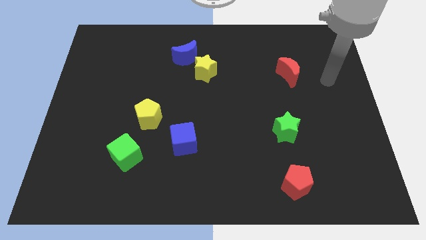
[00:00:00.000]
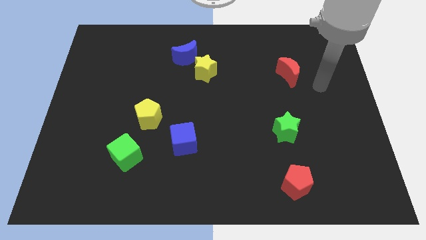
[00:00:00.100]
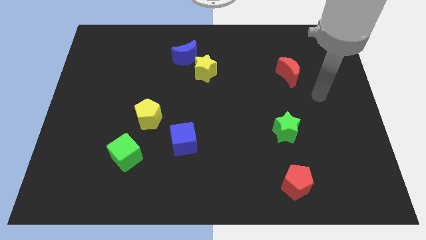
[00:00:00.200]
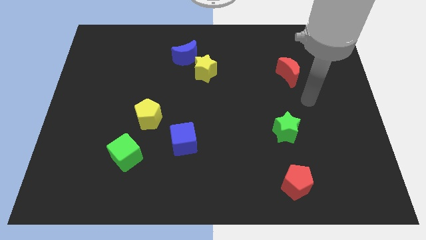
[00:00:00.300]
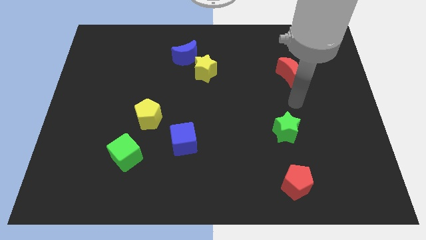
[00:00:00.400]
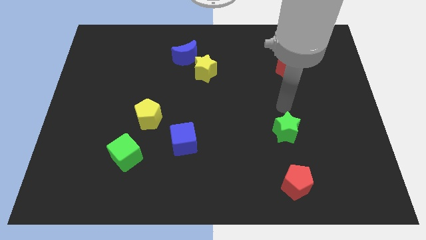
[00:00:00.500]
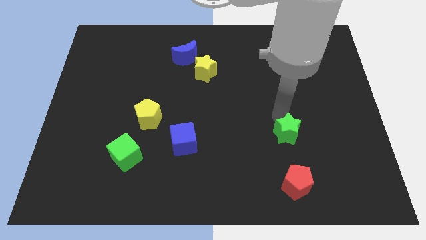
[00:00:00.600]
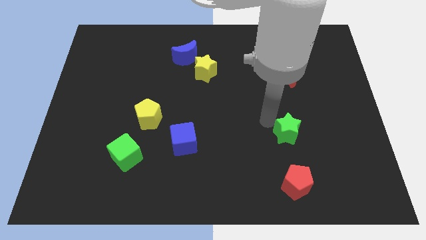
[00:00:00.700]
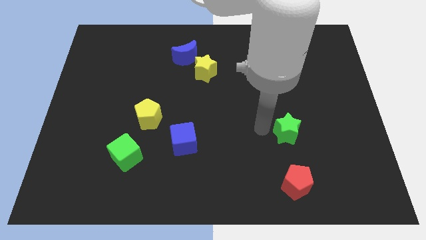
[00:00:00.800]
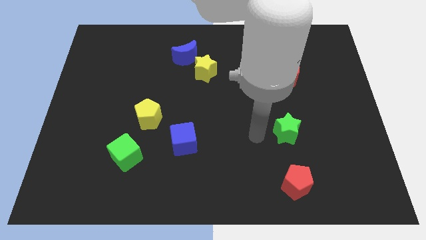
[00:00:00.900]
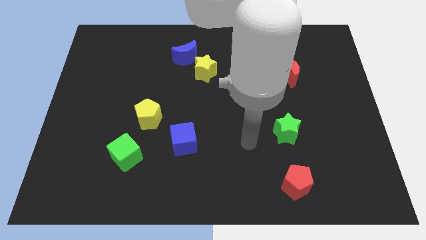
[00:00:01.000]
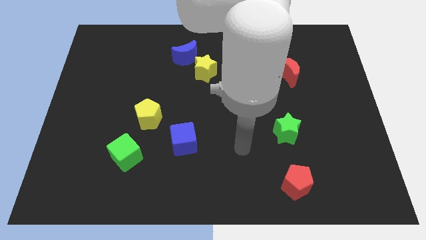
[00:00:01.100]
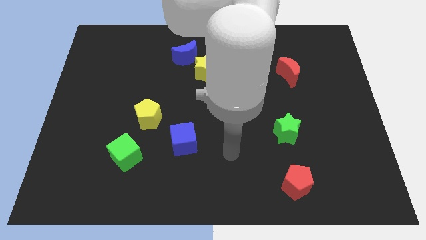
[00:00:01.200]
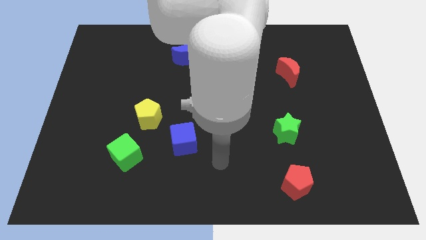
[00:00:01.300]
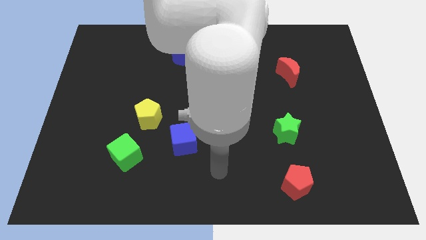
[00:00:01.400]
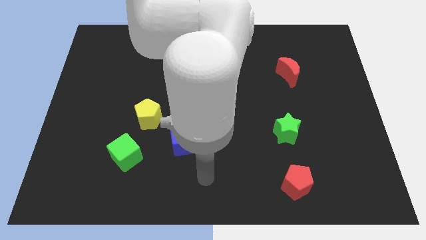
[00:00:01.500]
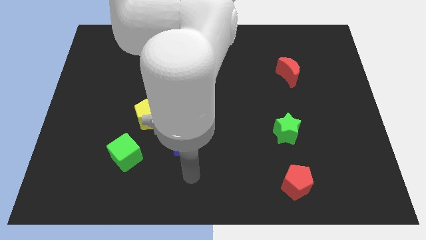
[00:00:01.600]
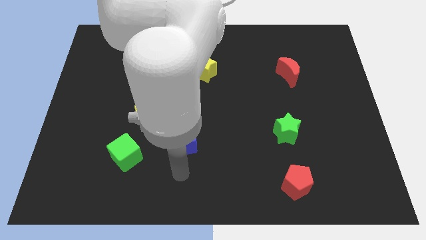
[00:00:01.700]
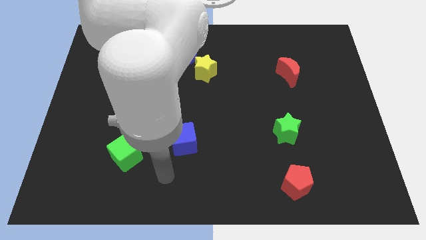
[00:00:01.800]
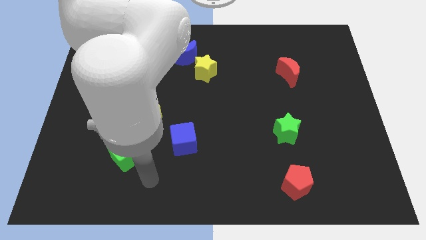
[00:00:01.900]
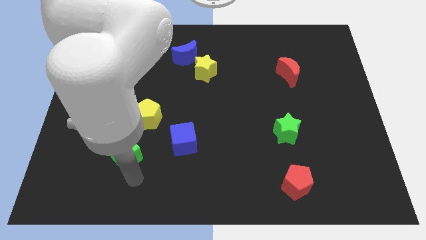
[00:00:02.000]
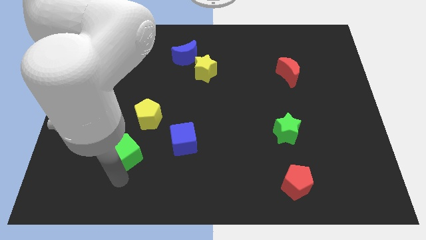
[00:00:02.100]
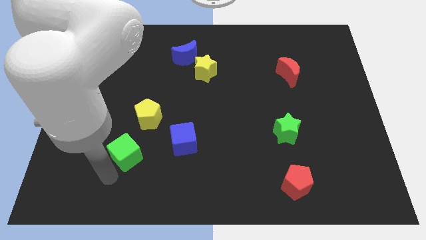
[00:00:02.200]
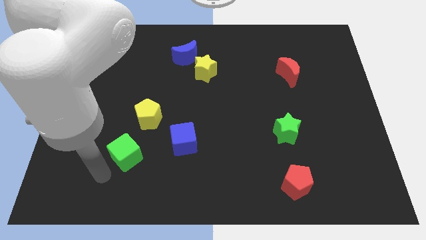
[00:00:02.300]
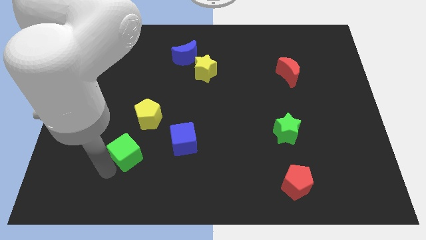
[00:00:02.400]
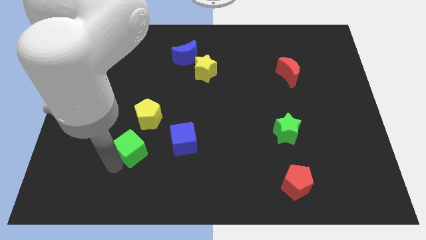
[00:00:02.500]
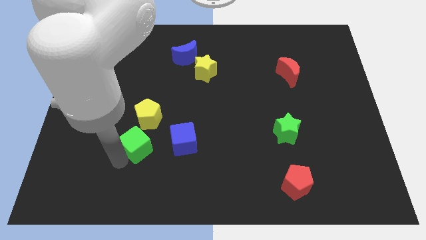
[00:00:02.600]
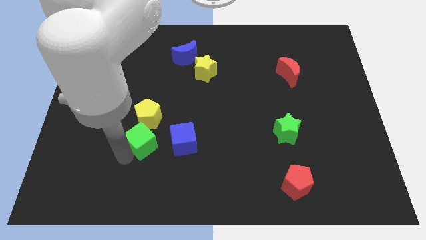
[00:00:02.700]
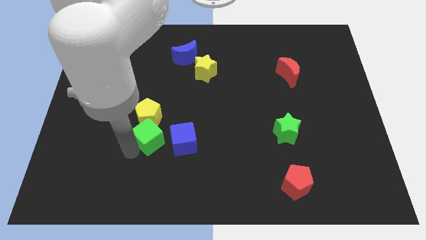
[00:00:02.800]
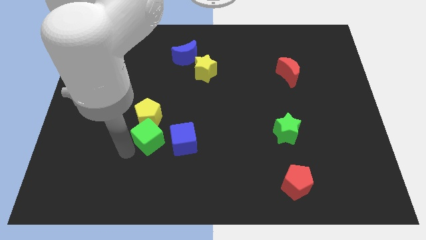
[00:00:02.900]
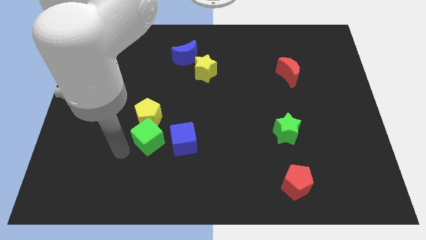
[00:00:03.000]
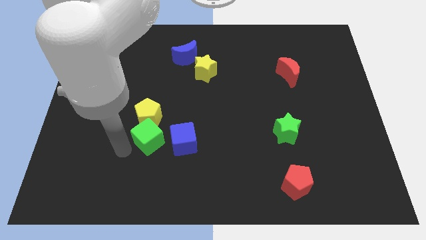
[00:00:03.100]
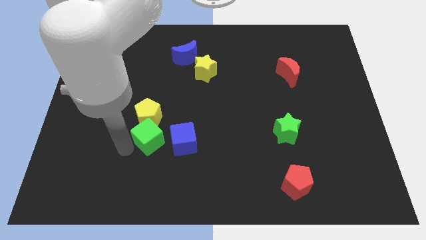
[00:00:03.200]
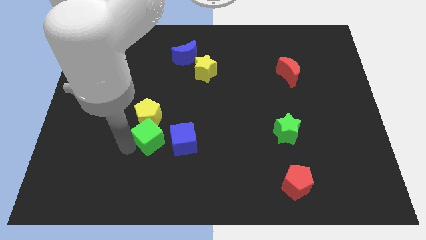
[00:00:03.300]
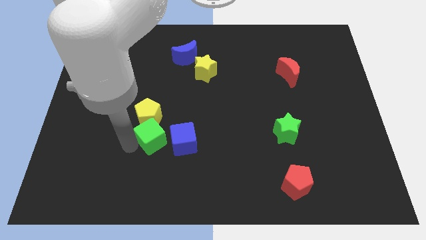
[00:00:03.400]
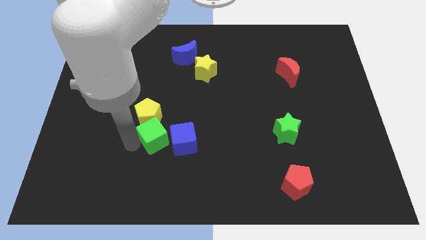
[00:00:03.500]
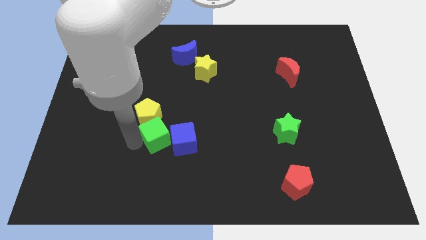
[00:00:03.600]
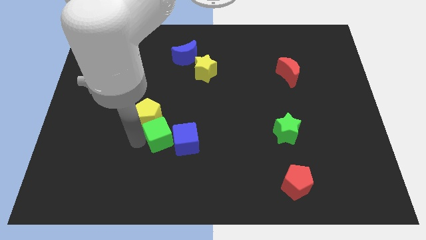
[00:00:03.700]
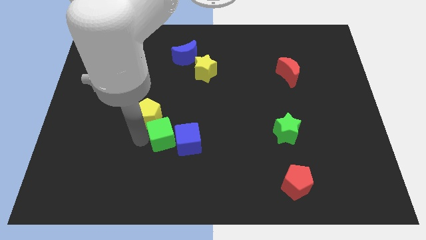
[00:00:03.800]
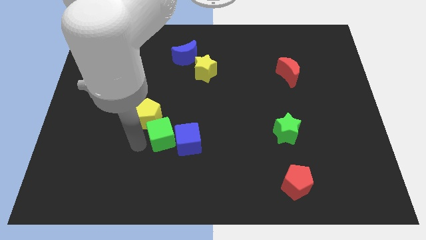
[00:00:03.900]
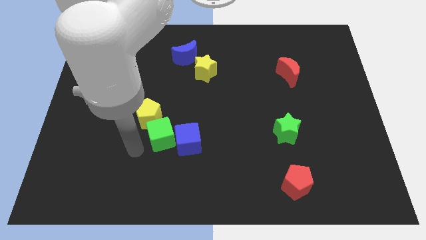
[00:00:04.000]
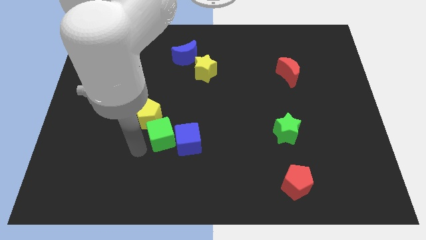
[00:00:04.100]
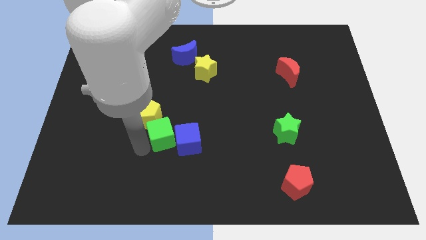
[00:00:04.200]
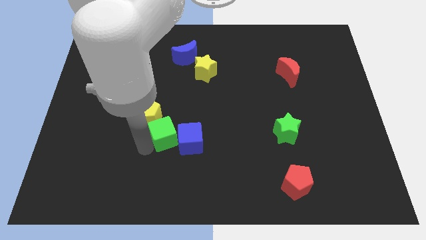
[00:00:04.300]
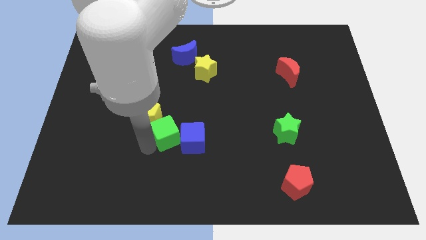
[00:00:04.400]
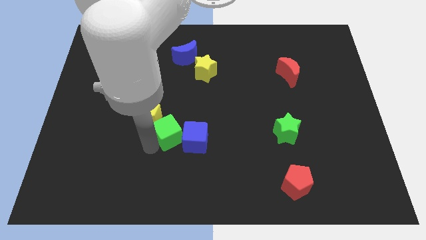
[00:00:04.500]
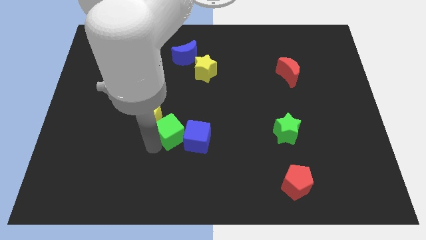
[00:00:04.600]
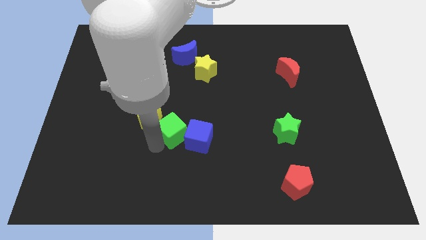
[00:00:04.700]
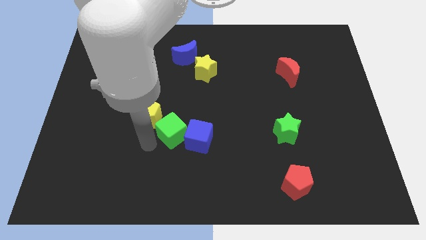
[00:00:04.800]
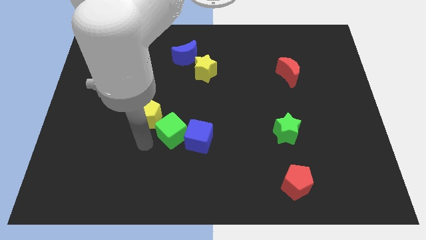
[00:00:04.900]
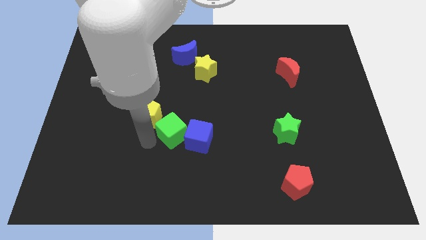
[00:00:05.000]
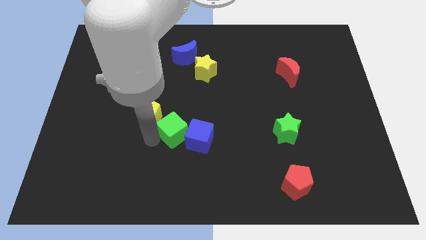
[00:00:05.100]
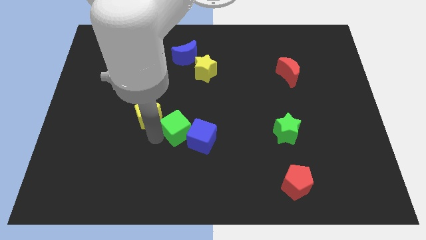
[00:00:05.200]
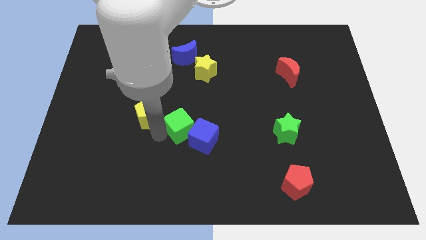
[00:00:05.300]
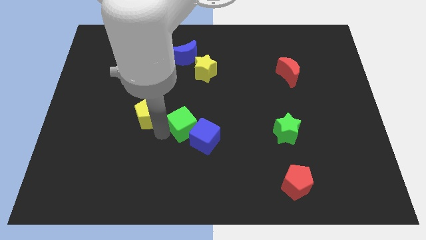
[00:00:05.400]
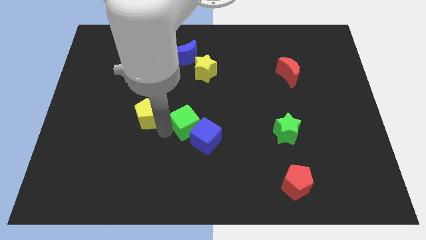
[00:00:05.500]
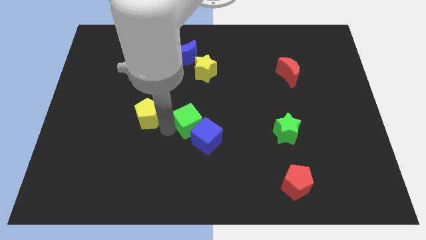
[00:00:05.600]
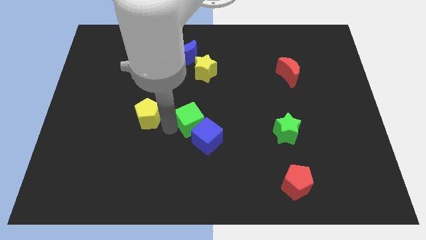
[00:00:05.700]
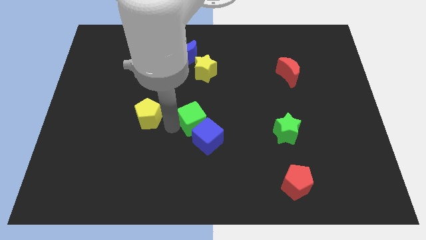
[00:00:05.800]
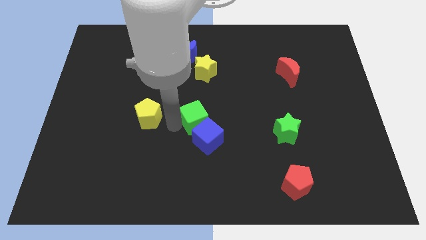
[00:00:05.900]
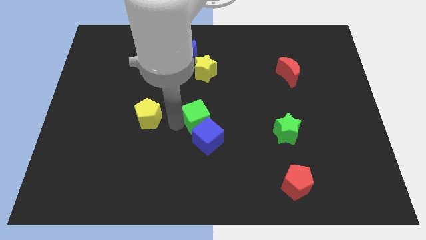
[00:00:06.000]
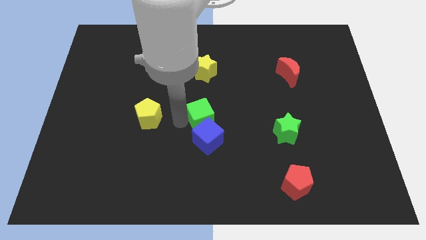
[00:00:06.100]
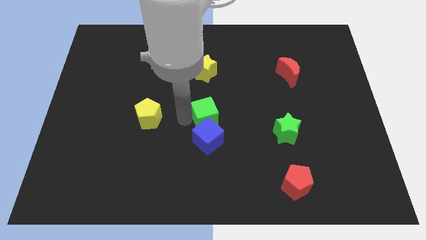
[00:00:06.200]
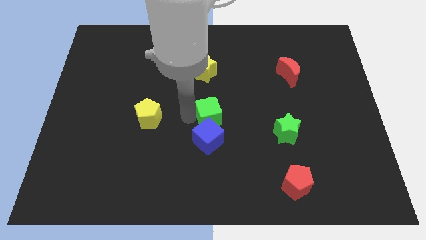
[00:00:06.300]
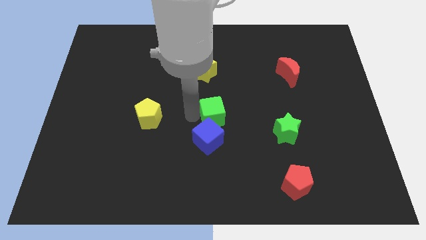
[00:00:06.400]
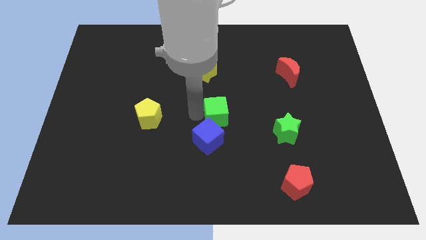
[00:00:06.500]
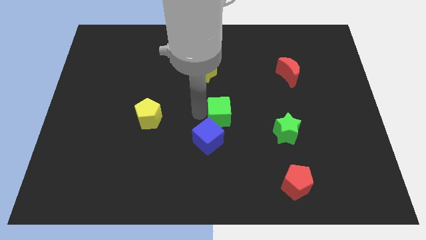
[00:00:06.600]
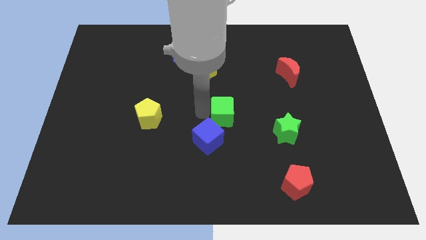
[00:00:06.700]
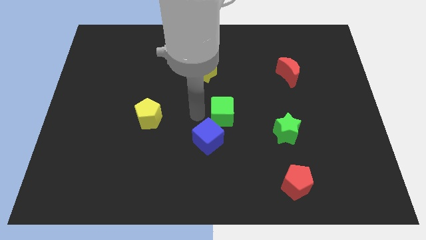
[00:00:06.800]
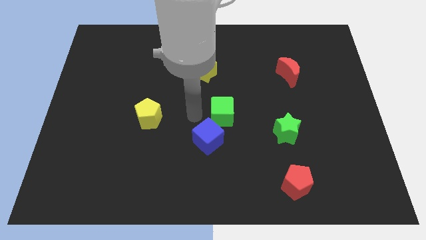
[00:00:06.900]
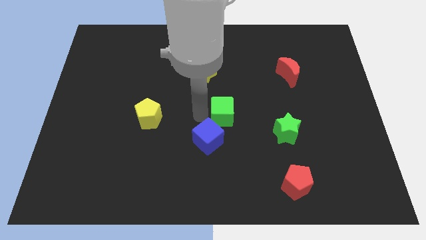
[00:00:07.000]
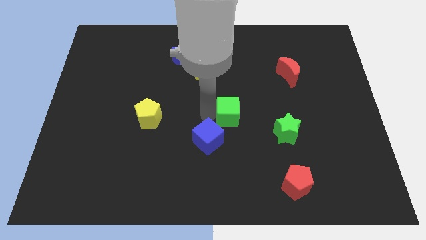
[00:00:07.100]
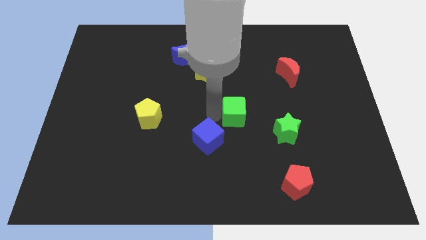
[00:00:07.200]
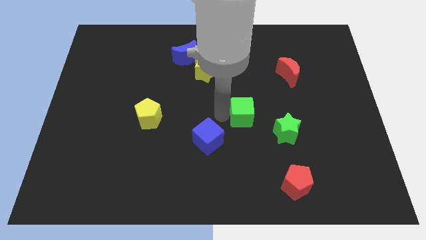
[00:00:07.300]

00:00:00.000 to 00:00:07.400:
put the green cube to the top left side of the green star

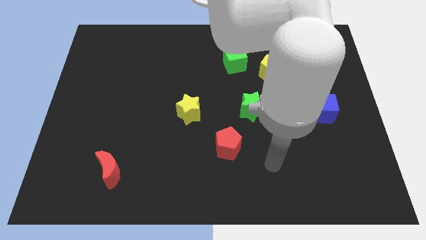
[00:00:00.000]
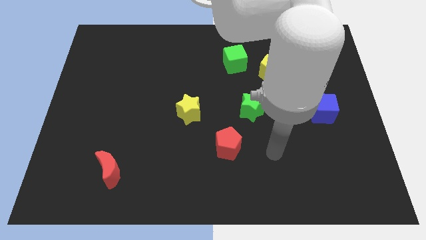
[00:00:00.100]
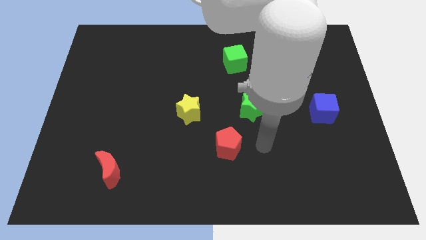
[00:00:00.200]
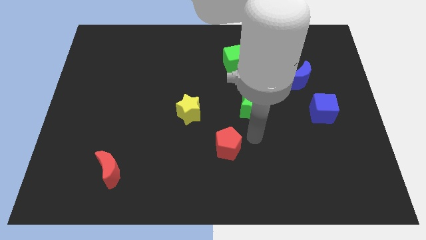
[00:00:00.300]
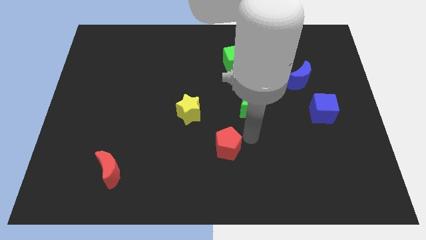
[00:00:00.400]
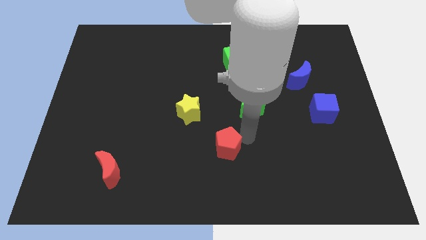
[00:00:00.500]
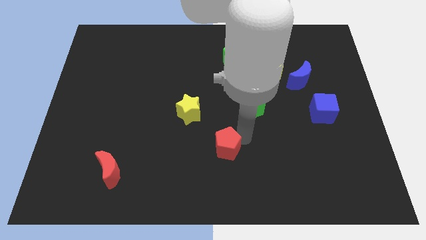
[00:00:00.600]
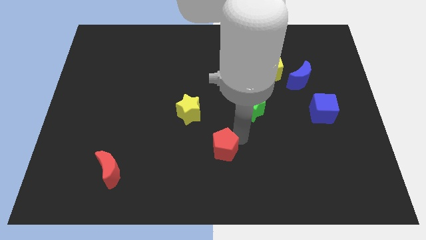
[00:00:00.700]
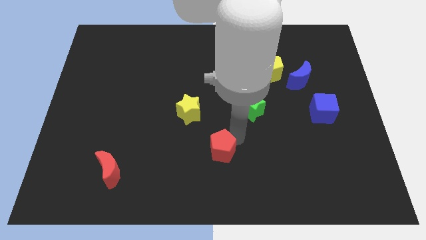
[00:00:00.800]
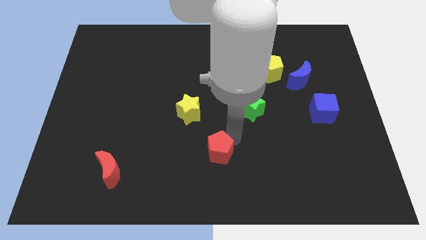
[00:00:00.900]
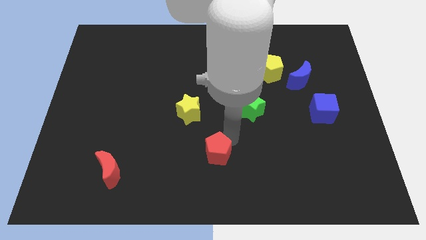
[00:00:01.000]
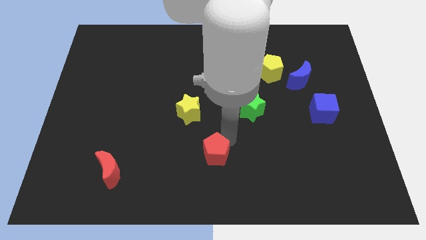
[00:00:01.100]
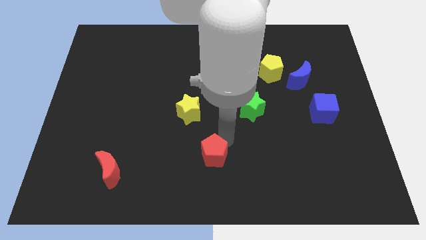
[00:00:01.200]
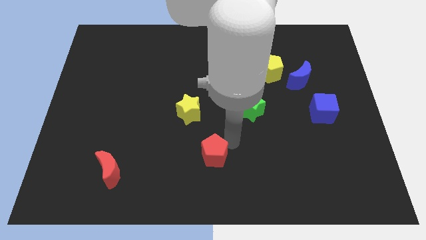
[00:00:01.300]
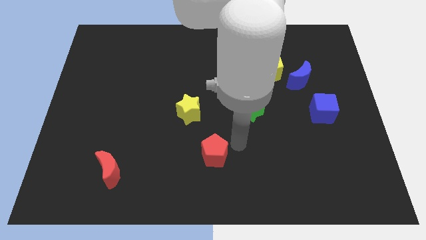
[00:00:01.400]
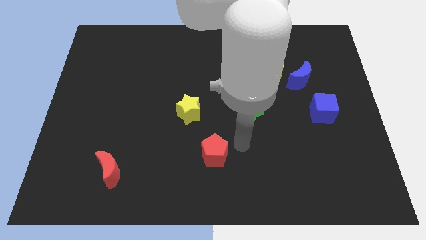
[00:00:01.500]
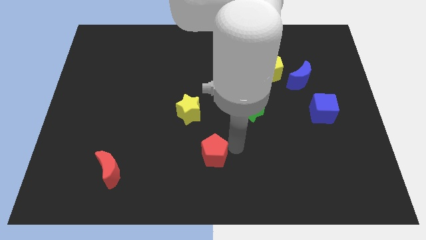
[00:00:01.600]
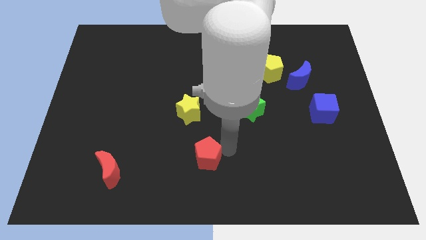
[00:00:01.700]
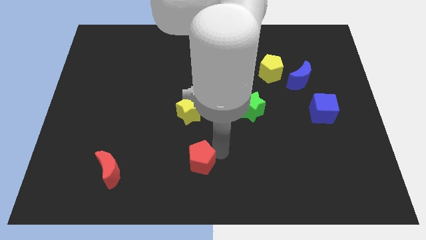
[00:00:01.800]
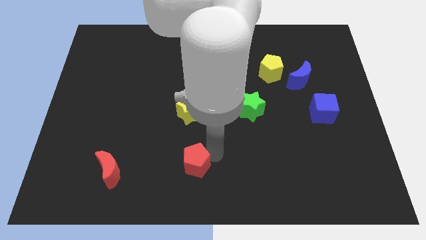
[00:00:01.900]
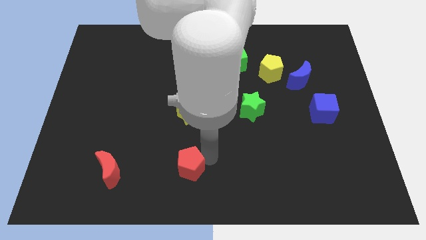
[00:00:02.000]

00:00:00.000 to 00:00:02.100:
move the red pentagon to the right of the red moon
